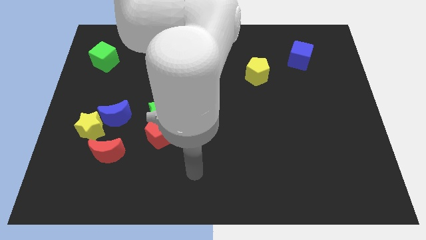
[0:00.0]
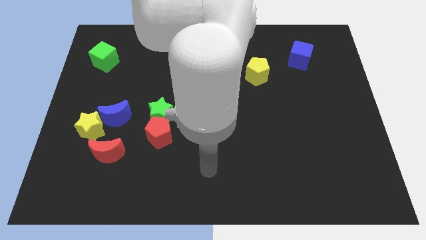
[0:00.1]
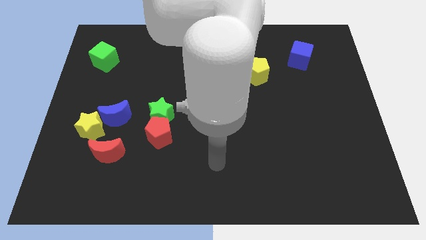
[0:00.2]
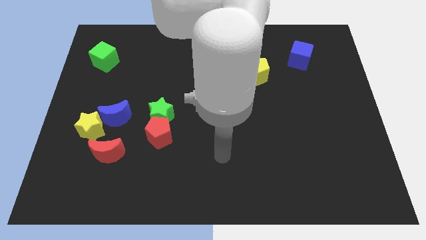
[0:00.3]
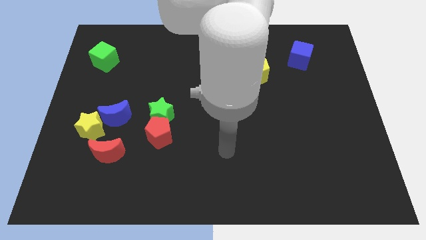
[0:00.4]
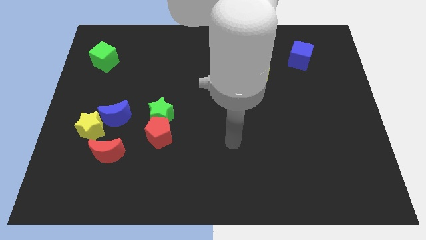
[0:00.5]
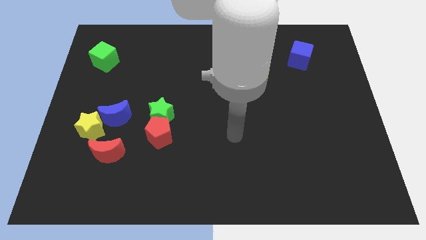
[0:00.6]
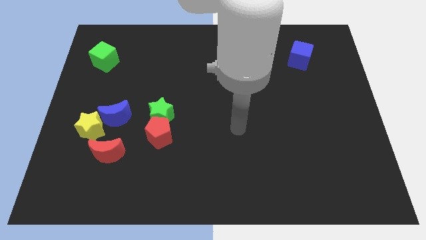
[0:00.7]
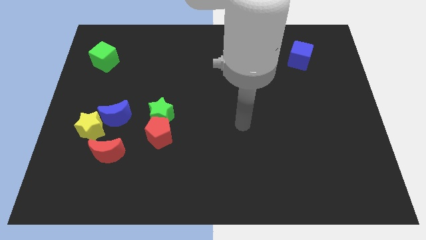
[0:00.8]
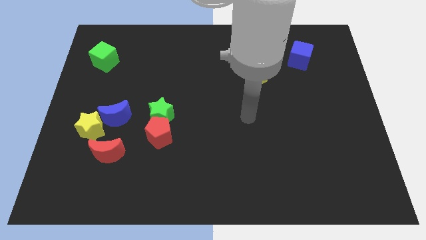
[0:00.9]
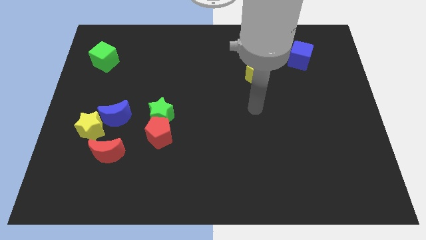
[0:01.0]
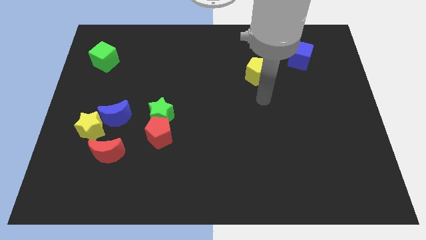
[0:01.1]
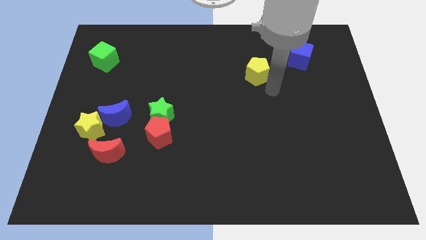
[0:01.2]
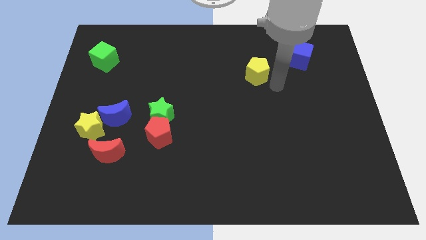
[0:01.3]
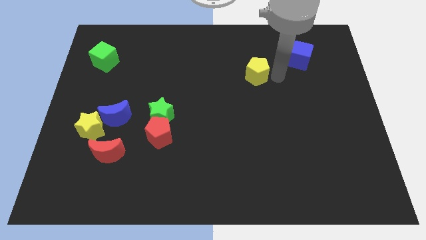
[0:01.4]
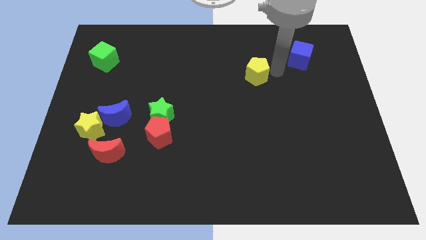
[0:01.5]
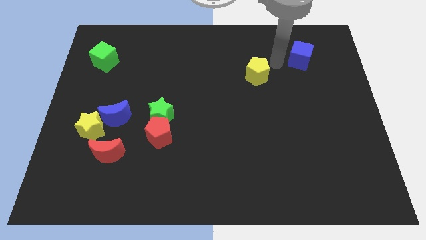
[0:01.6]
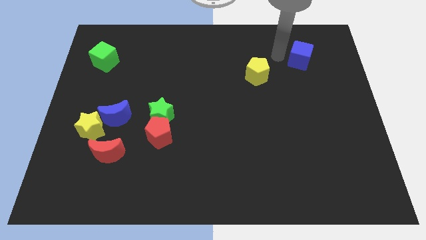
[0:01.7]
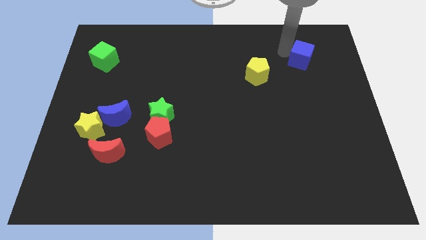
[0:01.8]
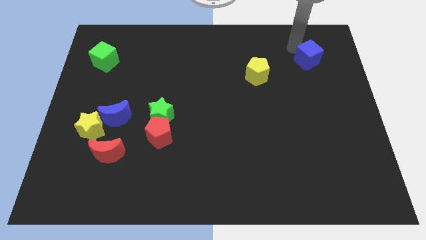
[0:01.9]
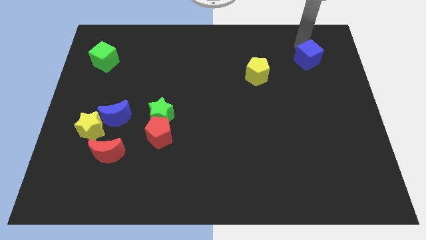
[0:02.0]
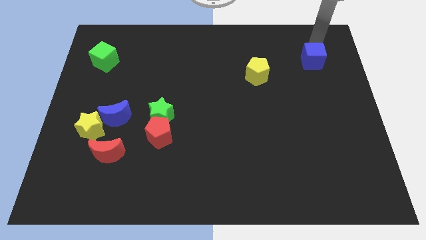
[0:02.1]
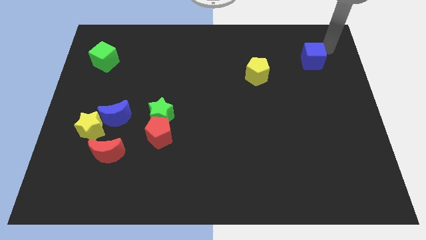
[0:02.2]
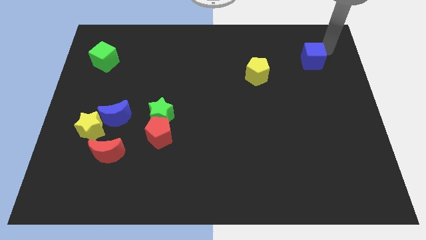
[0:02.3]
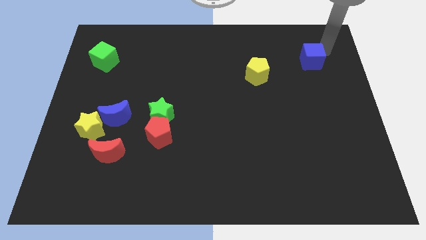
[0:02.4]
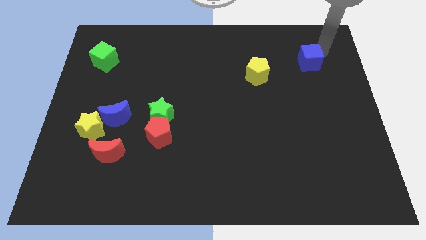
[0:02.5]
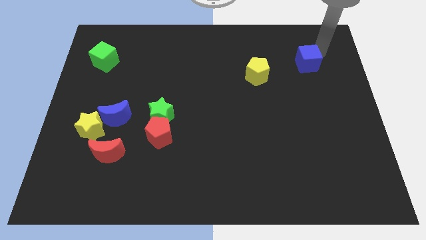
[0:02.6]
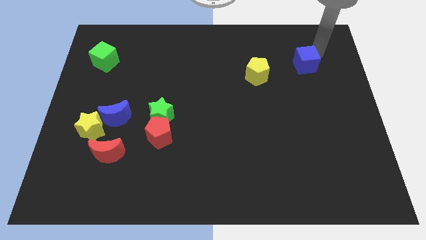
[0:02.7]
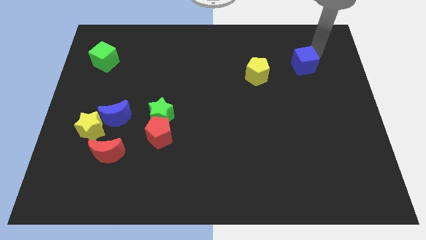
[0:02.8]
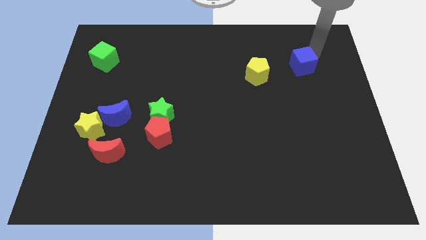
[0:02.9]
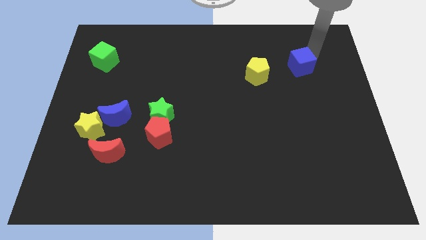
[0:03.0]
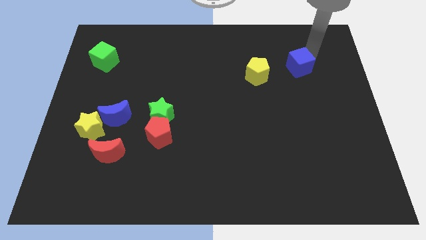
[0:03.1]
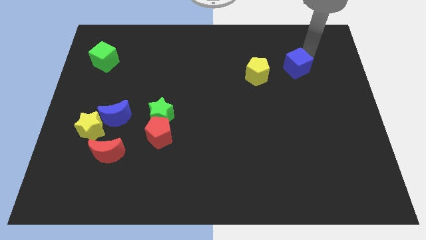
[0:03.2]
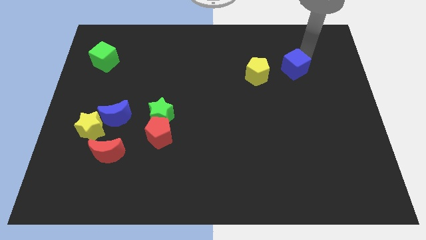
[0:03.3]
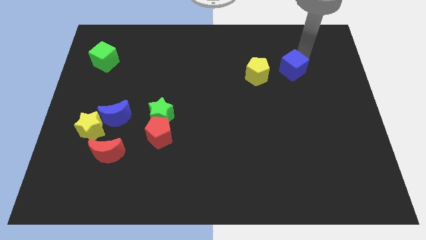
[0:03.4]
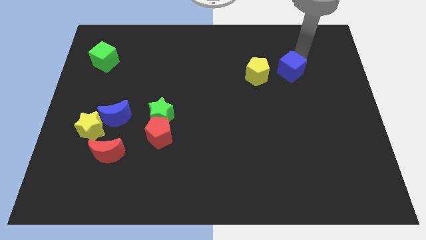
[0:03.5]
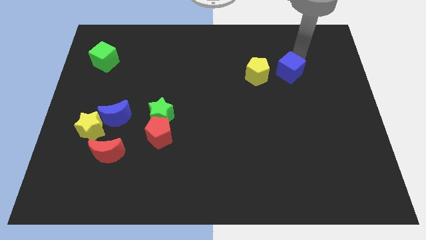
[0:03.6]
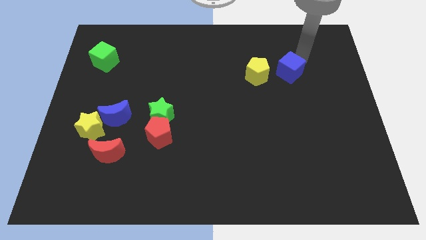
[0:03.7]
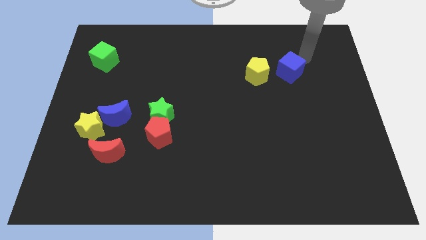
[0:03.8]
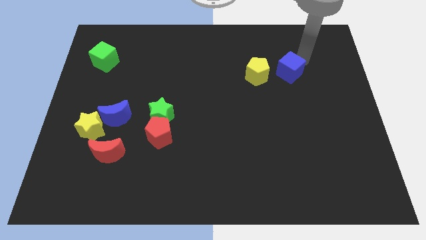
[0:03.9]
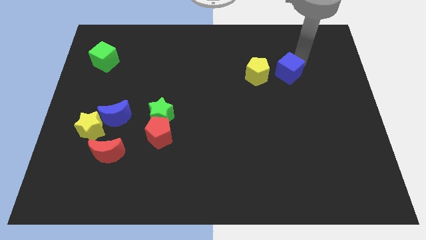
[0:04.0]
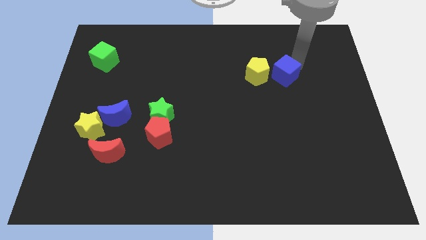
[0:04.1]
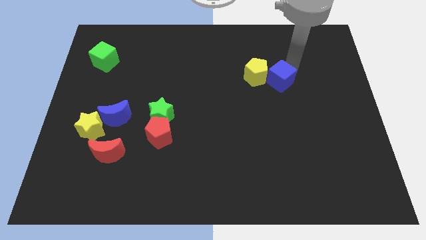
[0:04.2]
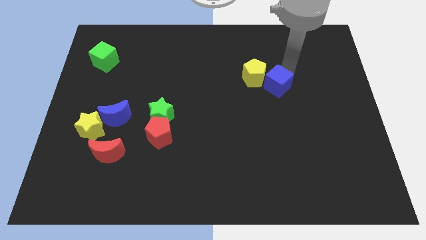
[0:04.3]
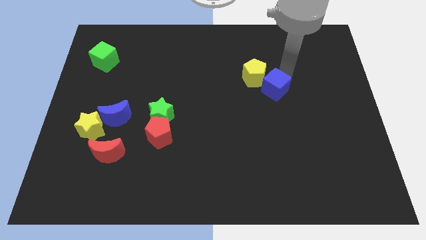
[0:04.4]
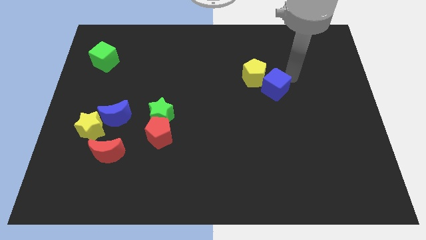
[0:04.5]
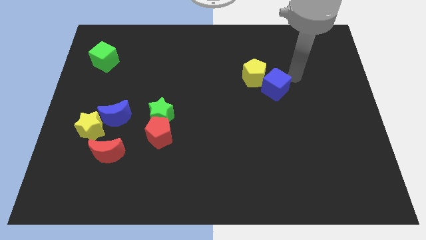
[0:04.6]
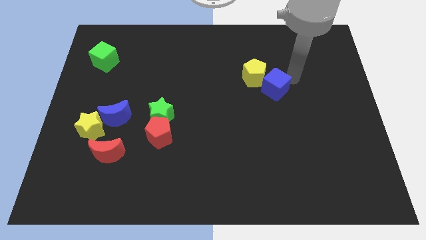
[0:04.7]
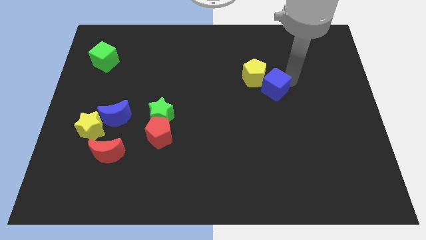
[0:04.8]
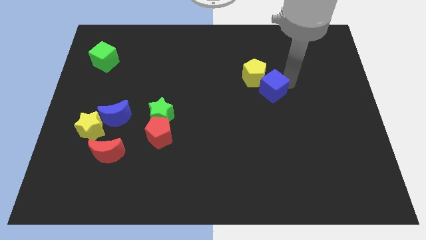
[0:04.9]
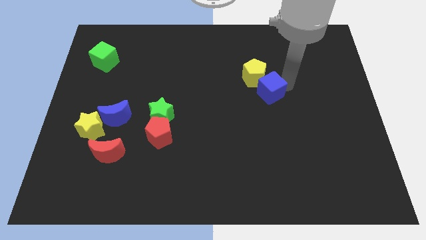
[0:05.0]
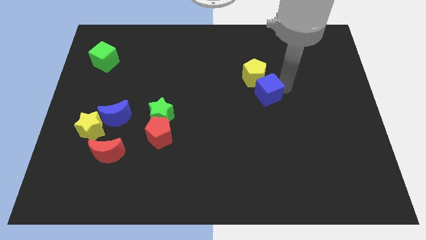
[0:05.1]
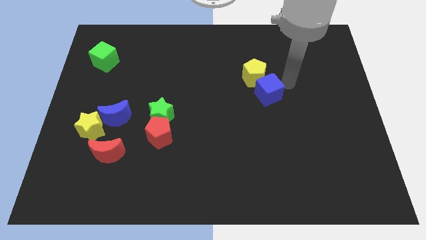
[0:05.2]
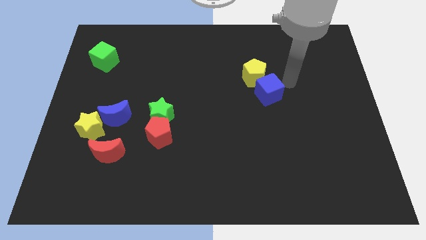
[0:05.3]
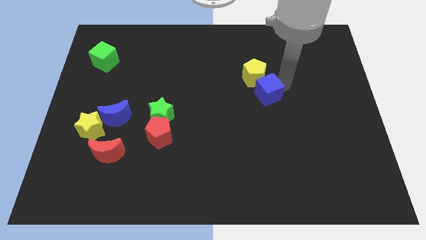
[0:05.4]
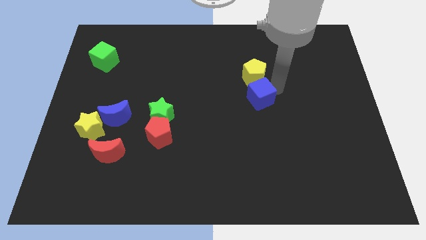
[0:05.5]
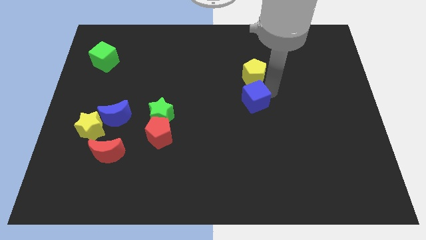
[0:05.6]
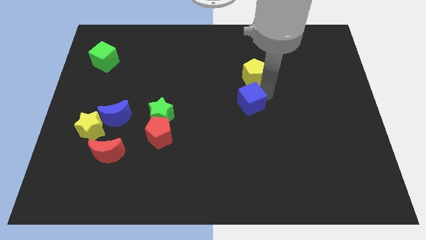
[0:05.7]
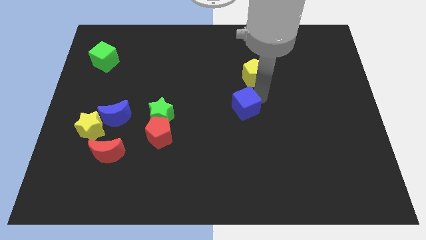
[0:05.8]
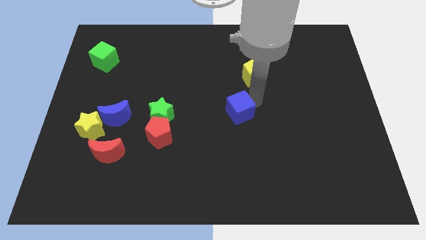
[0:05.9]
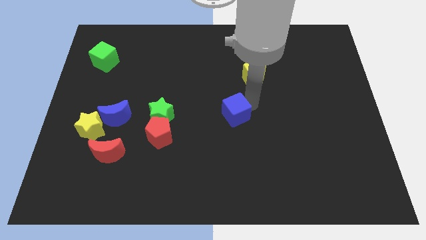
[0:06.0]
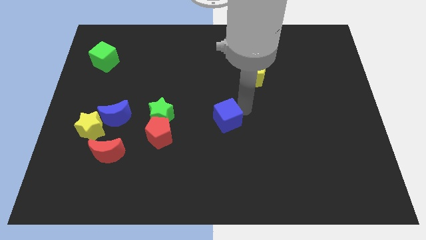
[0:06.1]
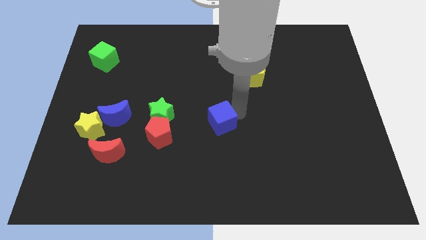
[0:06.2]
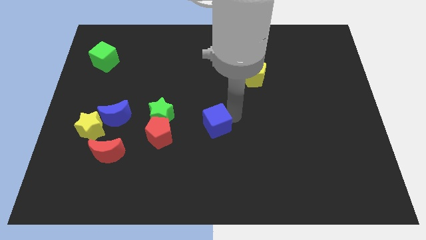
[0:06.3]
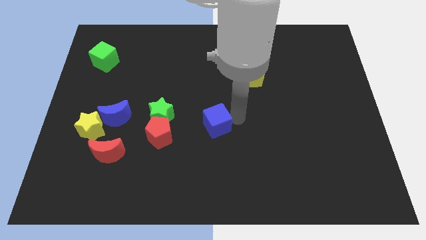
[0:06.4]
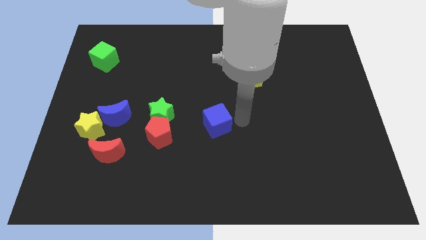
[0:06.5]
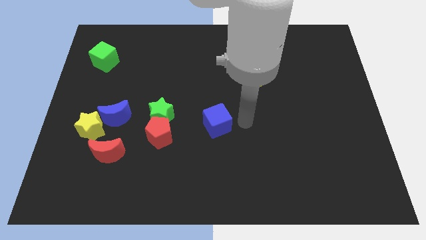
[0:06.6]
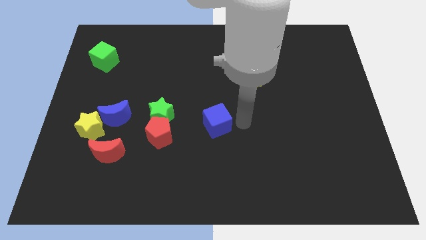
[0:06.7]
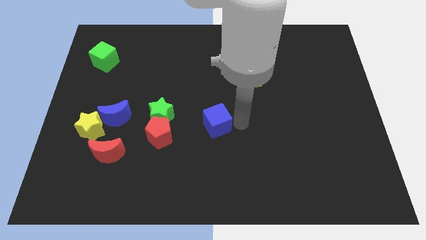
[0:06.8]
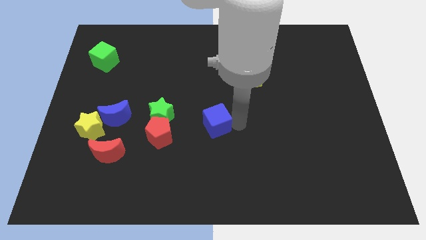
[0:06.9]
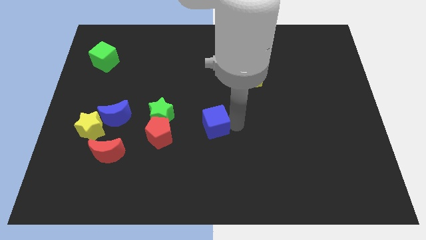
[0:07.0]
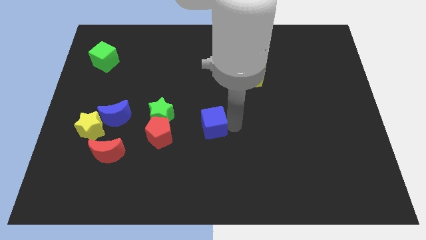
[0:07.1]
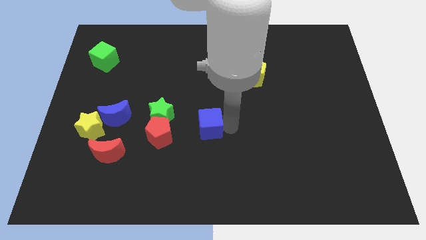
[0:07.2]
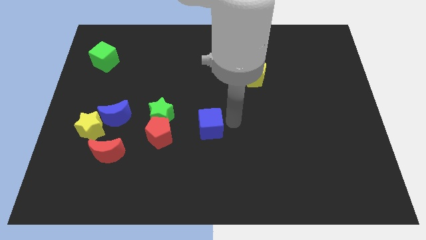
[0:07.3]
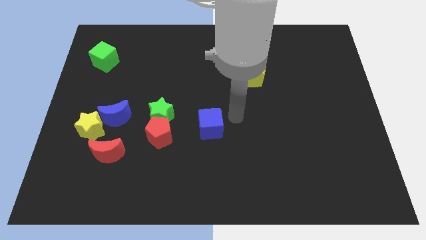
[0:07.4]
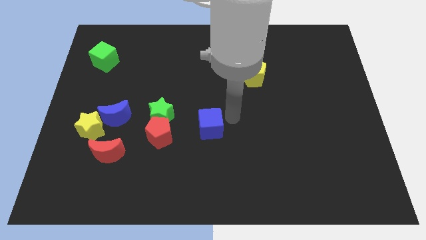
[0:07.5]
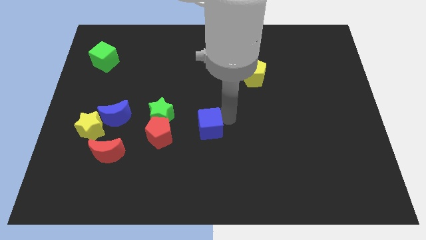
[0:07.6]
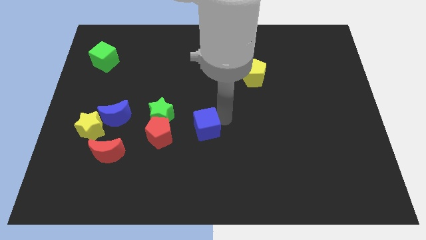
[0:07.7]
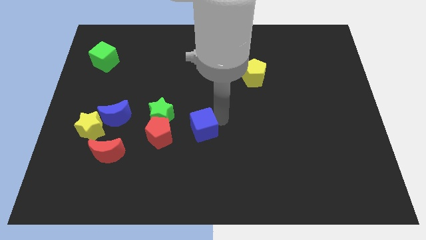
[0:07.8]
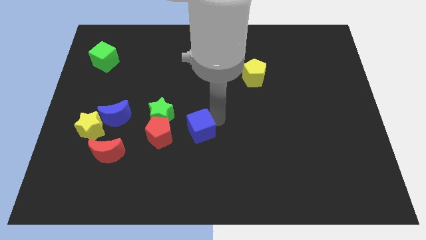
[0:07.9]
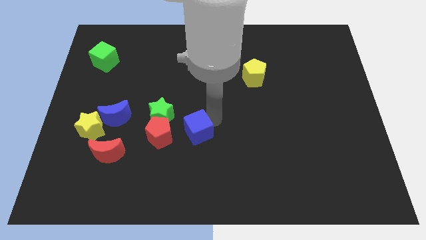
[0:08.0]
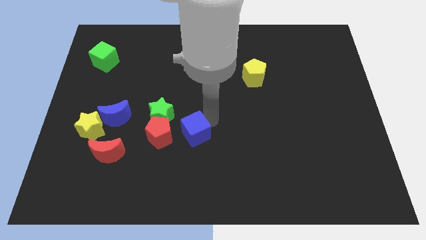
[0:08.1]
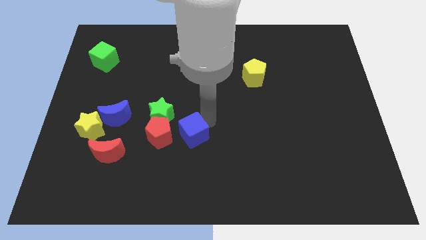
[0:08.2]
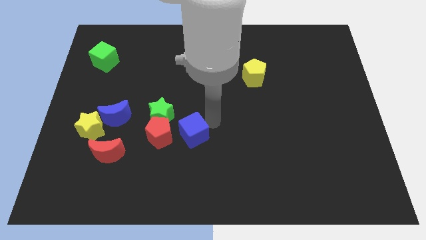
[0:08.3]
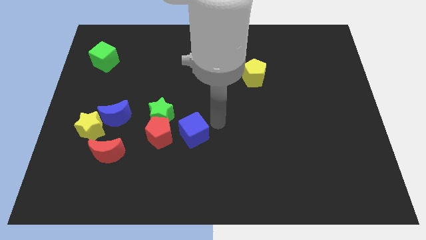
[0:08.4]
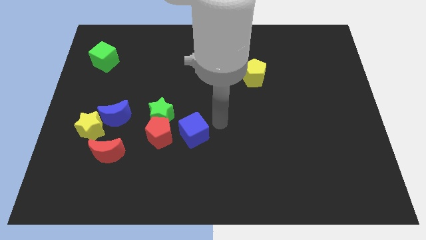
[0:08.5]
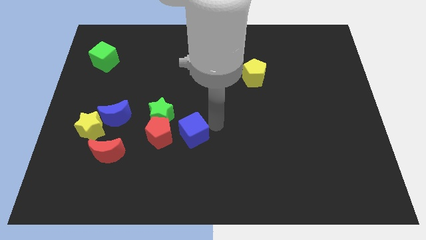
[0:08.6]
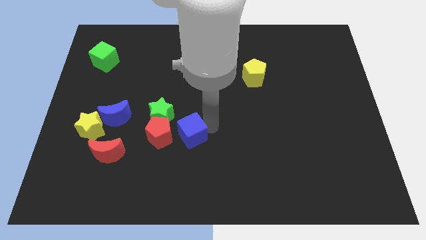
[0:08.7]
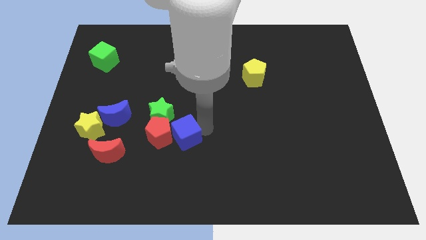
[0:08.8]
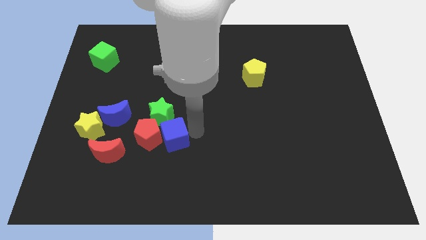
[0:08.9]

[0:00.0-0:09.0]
slide the blue cube right of the red moon
